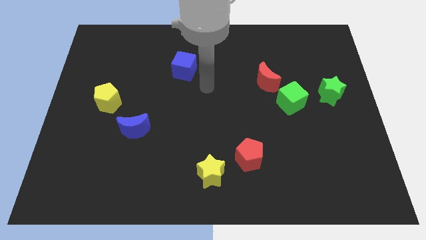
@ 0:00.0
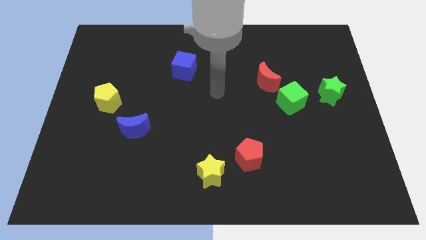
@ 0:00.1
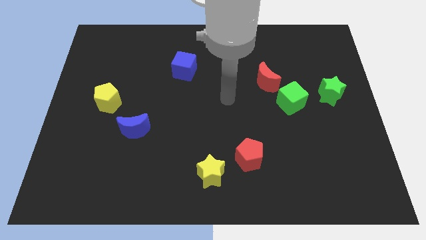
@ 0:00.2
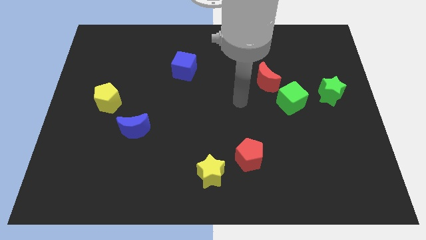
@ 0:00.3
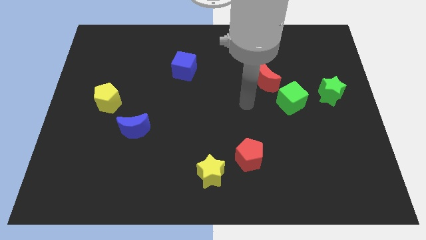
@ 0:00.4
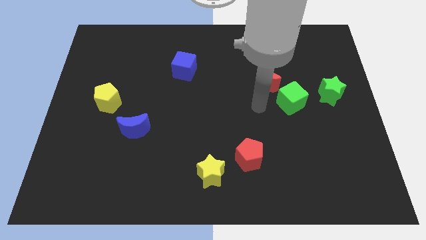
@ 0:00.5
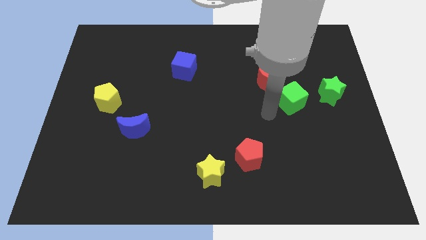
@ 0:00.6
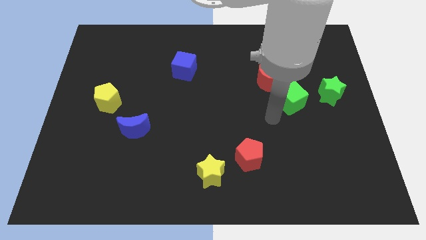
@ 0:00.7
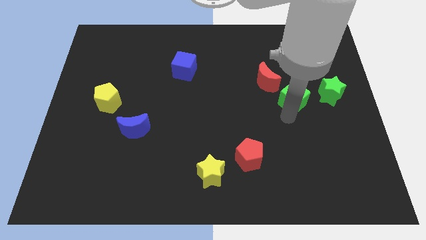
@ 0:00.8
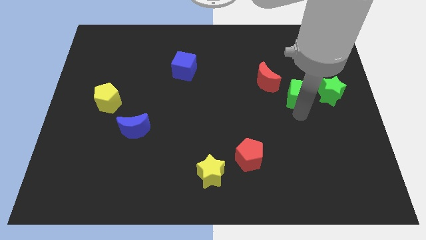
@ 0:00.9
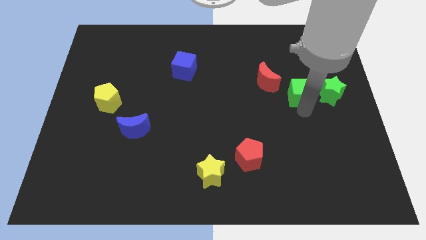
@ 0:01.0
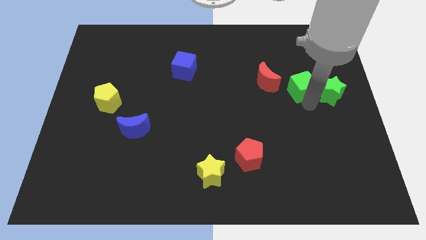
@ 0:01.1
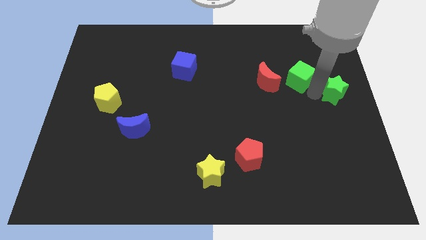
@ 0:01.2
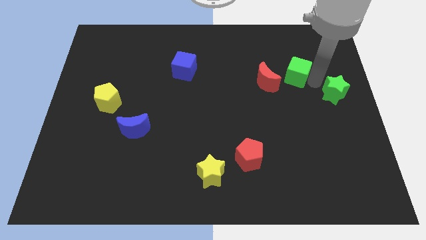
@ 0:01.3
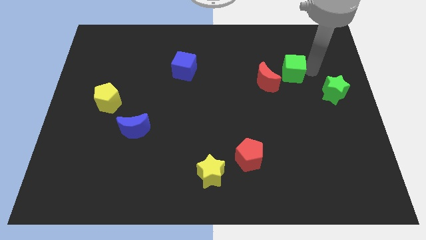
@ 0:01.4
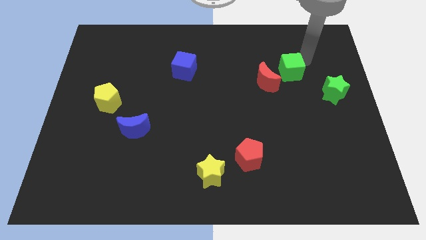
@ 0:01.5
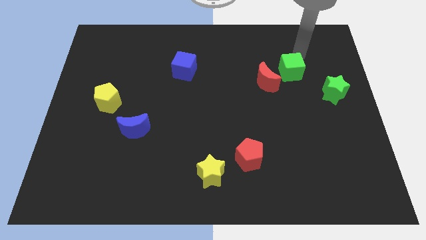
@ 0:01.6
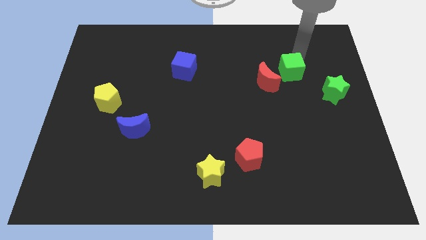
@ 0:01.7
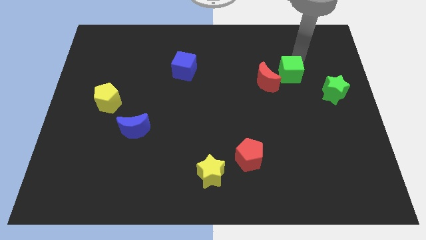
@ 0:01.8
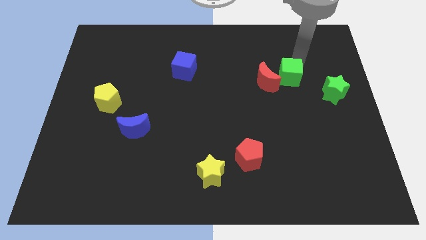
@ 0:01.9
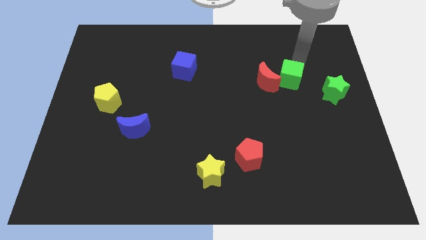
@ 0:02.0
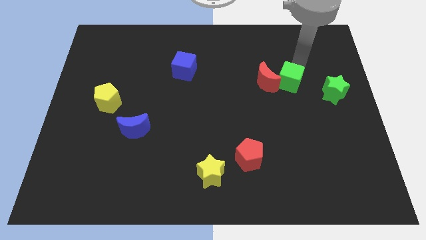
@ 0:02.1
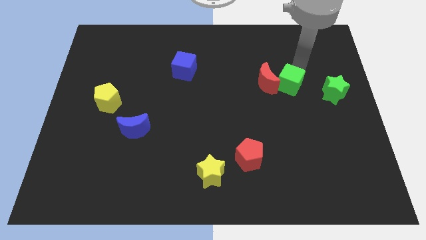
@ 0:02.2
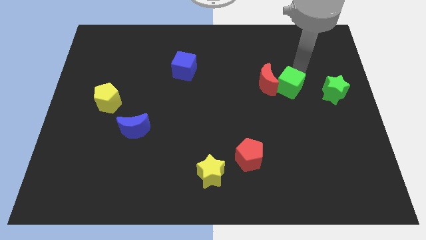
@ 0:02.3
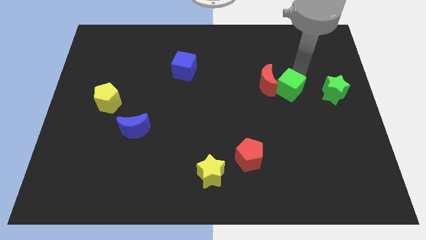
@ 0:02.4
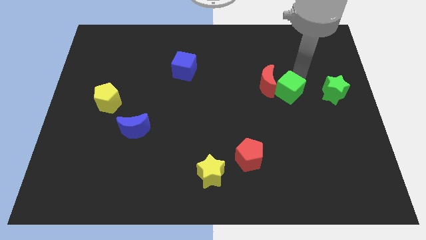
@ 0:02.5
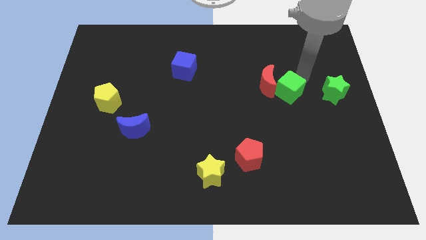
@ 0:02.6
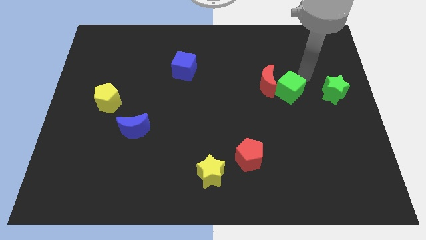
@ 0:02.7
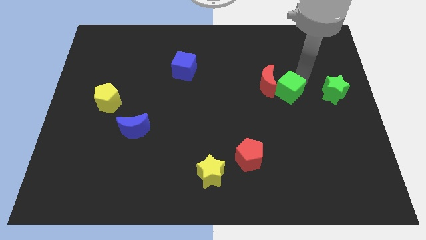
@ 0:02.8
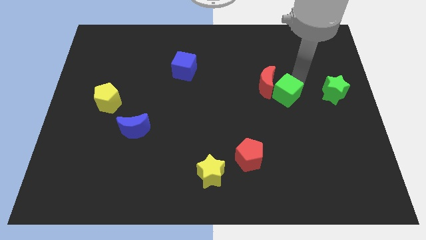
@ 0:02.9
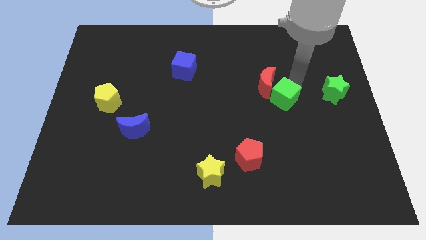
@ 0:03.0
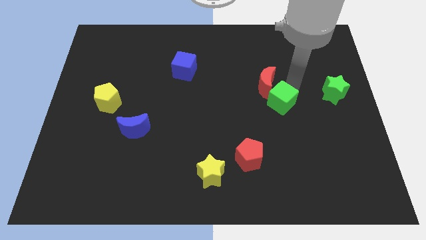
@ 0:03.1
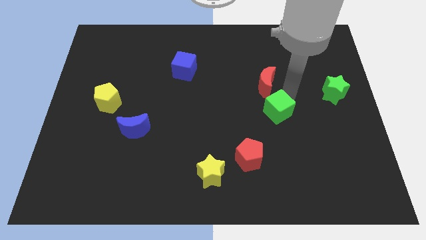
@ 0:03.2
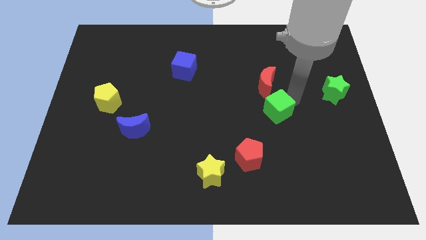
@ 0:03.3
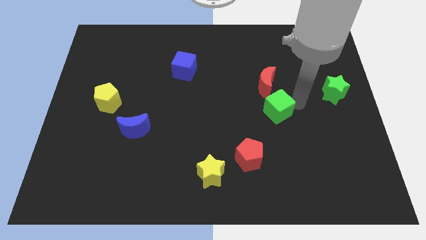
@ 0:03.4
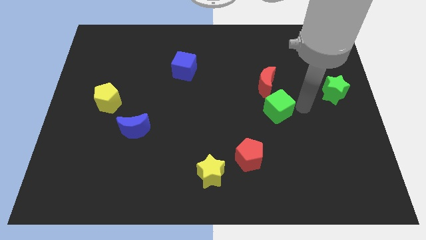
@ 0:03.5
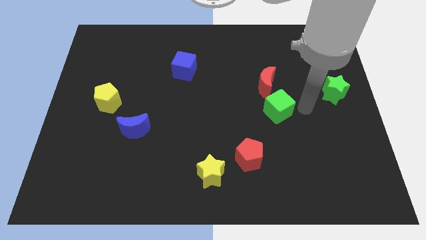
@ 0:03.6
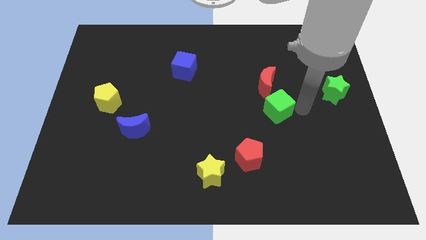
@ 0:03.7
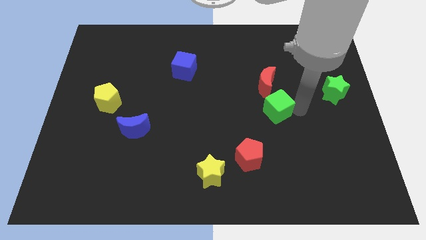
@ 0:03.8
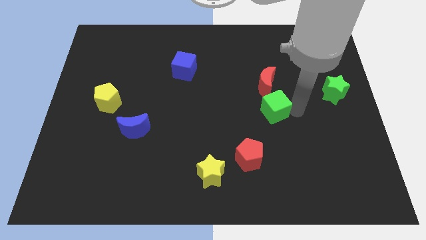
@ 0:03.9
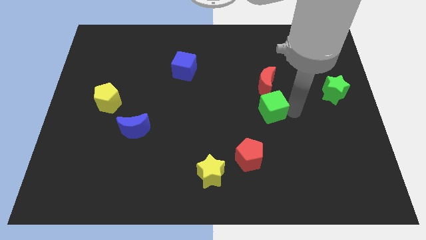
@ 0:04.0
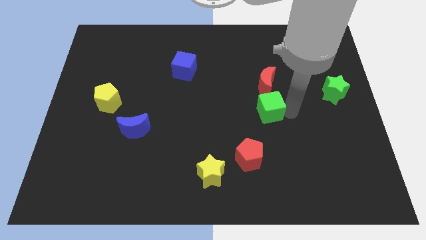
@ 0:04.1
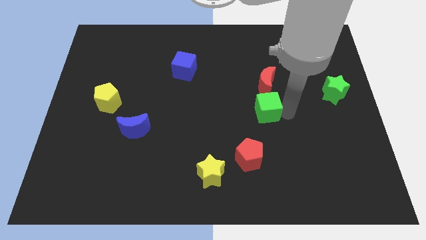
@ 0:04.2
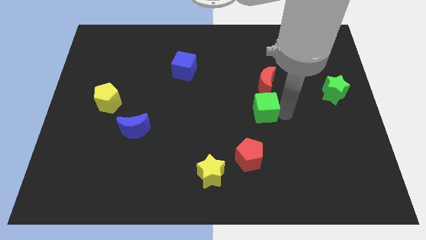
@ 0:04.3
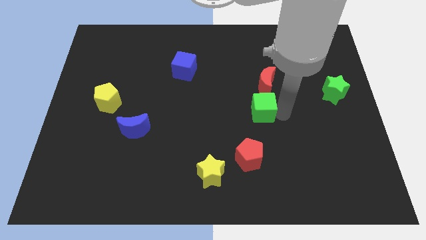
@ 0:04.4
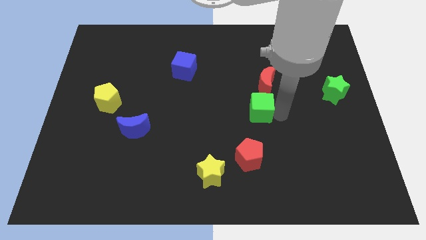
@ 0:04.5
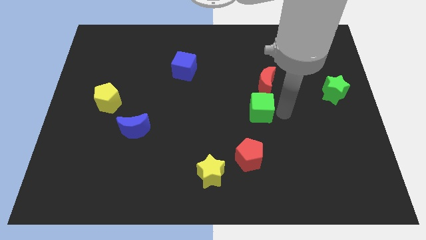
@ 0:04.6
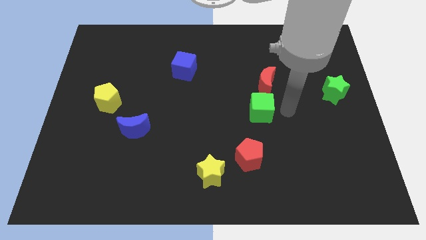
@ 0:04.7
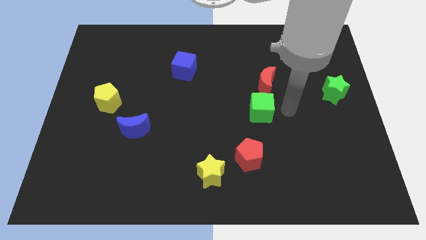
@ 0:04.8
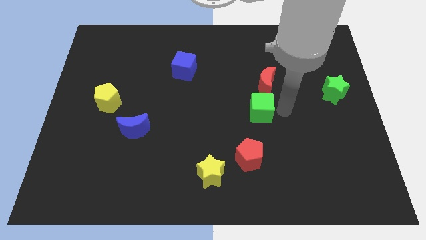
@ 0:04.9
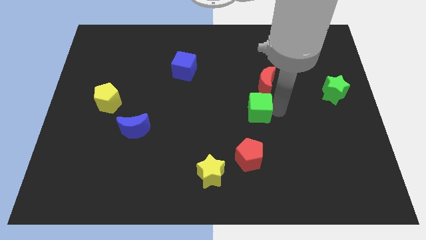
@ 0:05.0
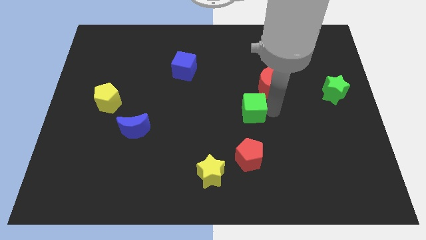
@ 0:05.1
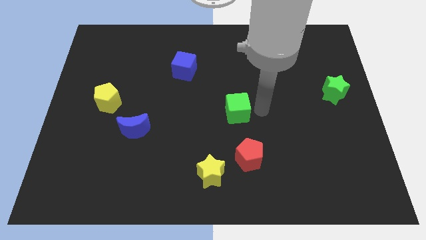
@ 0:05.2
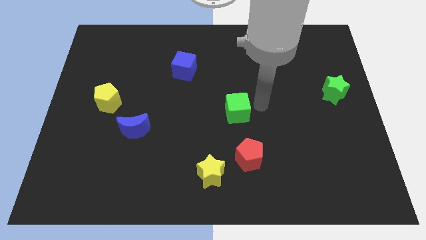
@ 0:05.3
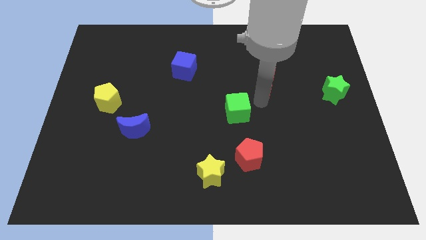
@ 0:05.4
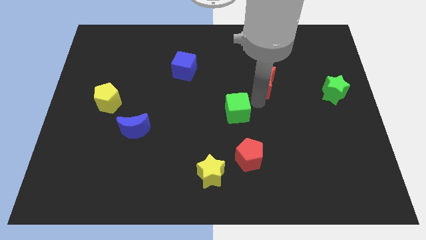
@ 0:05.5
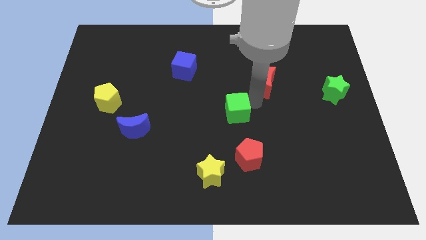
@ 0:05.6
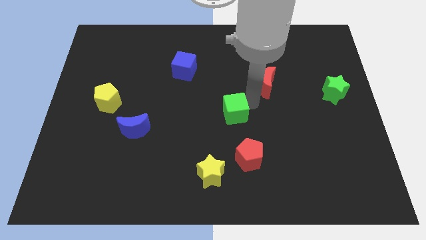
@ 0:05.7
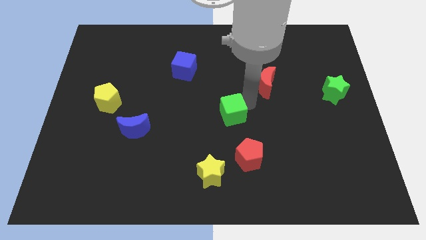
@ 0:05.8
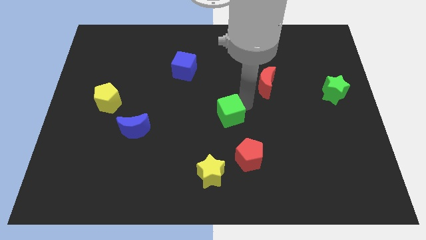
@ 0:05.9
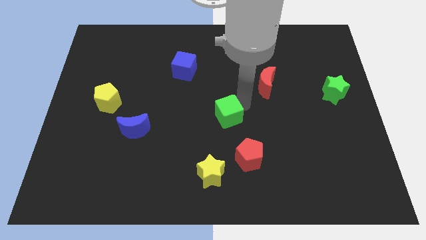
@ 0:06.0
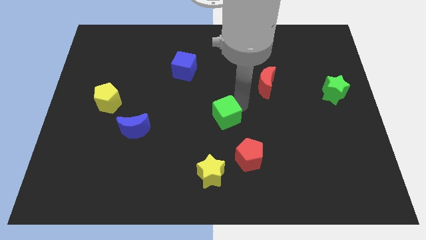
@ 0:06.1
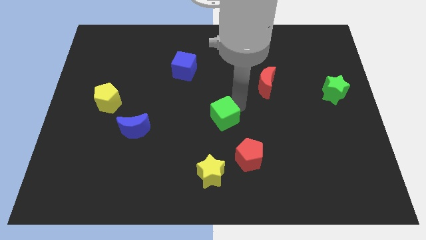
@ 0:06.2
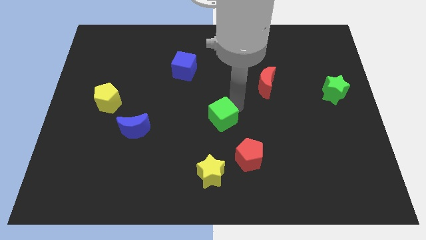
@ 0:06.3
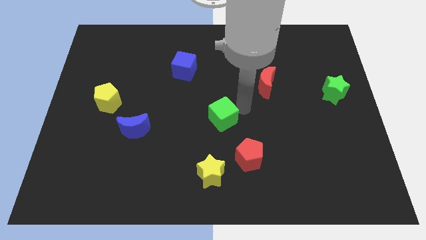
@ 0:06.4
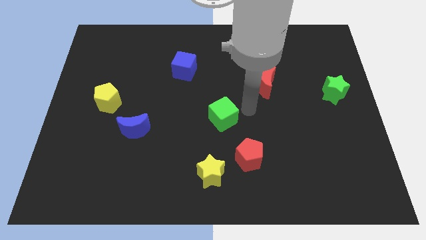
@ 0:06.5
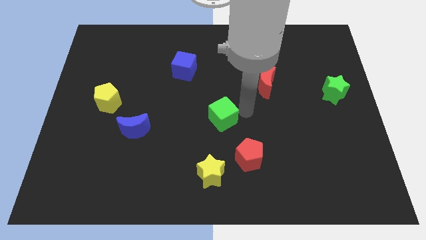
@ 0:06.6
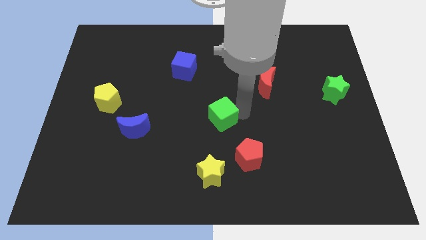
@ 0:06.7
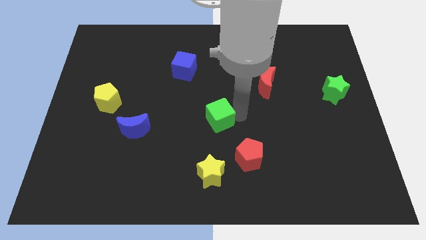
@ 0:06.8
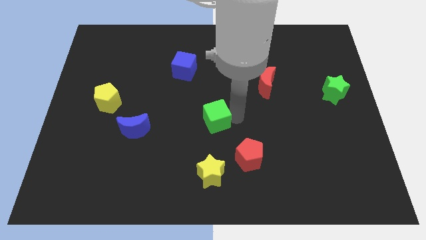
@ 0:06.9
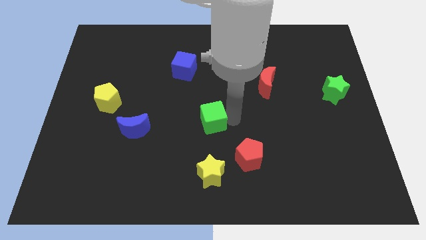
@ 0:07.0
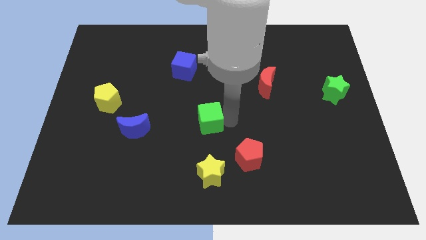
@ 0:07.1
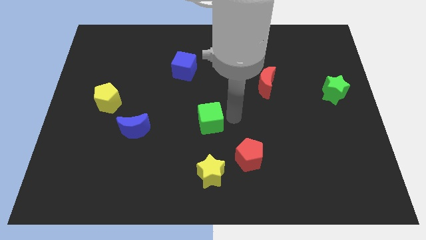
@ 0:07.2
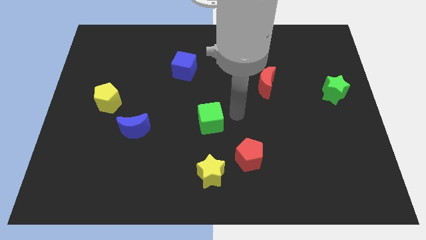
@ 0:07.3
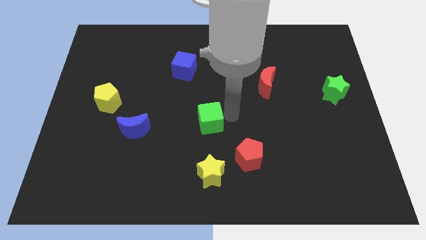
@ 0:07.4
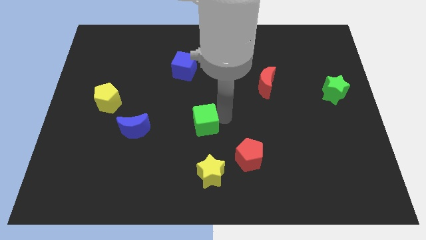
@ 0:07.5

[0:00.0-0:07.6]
put the green cube just right of the blue moon
